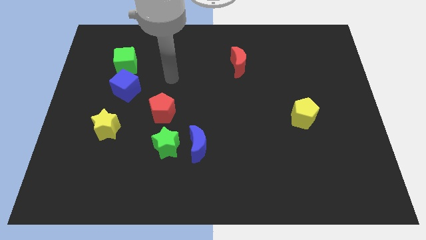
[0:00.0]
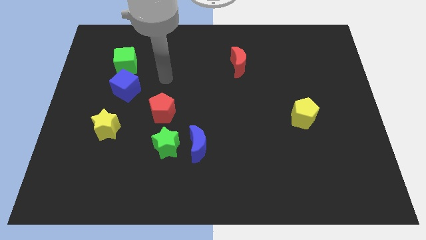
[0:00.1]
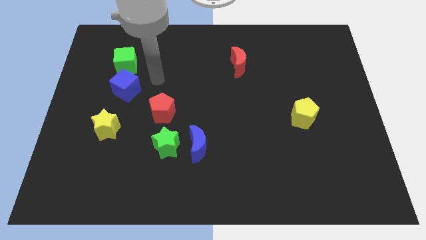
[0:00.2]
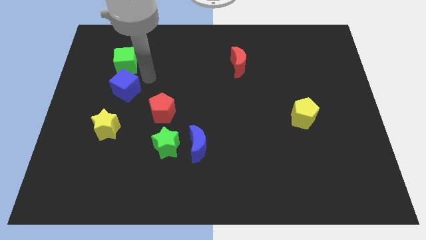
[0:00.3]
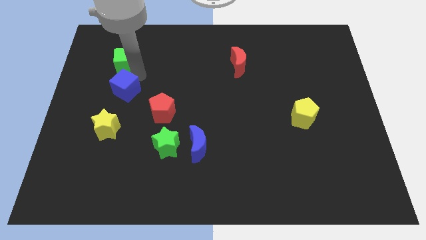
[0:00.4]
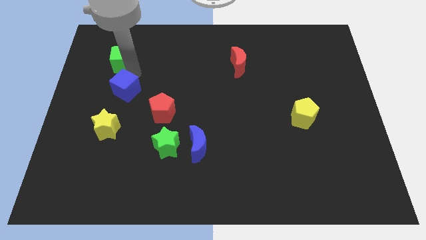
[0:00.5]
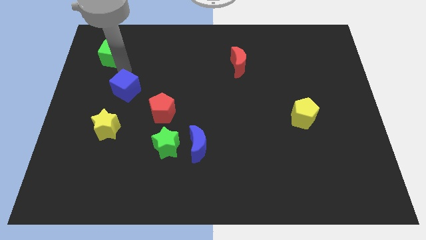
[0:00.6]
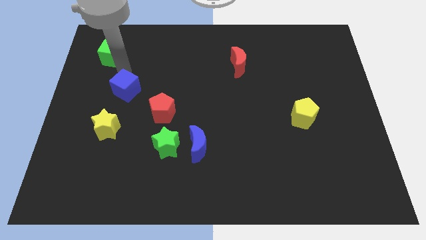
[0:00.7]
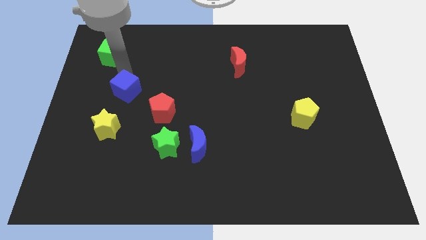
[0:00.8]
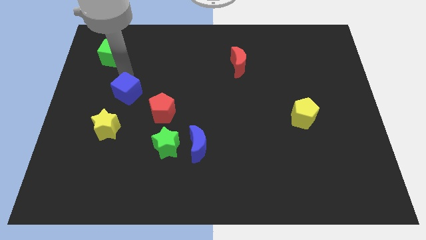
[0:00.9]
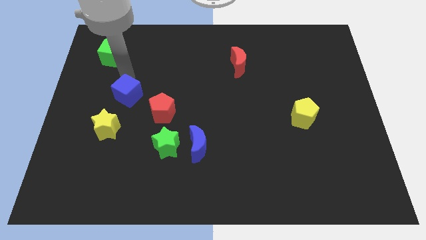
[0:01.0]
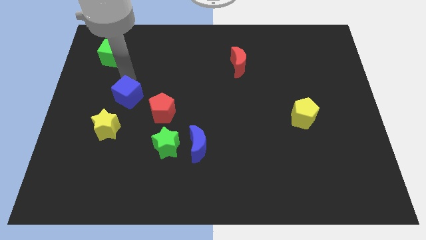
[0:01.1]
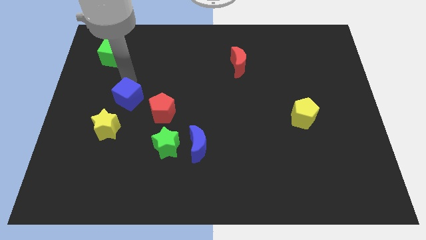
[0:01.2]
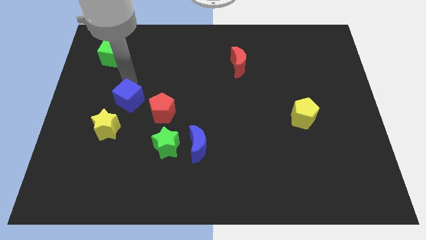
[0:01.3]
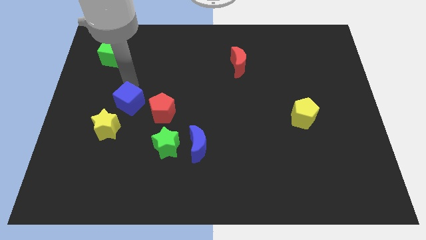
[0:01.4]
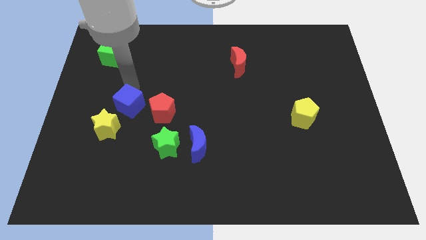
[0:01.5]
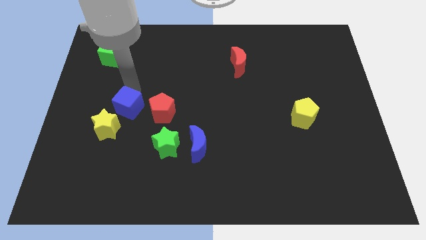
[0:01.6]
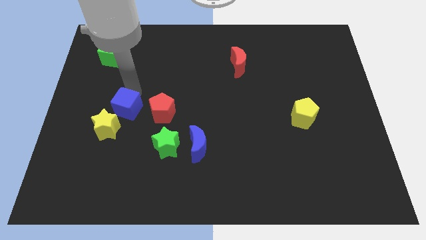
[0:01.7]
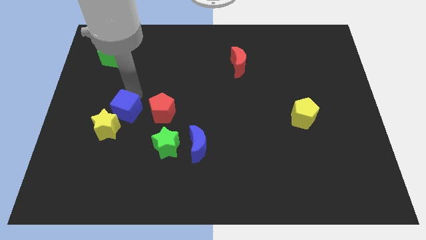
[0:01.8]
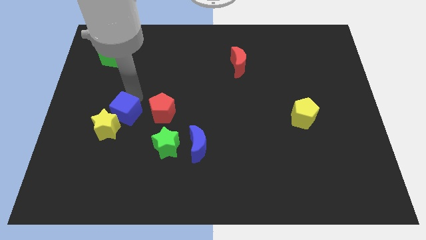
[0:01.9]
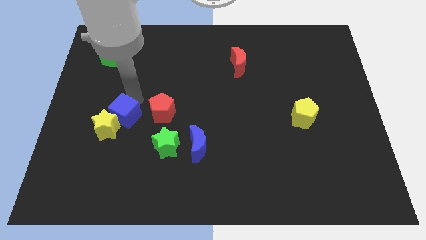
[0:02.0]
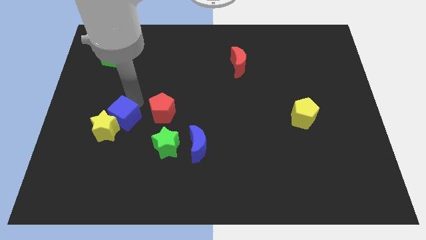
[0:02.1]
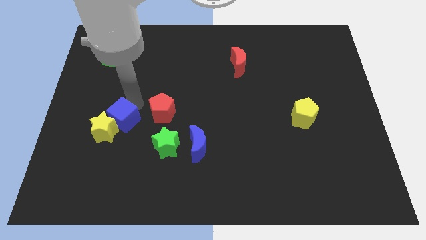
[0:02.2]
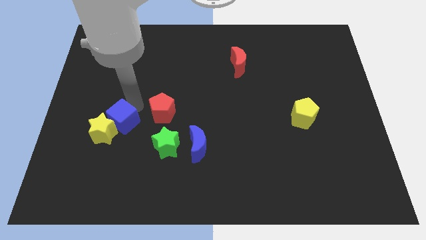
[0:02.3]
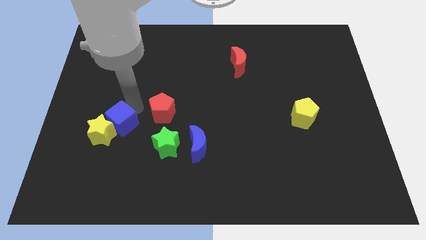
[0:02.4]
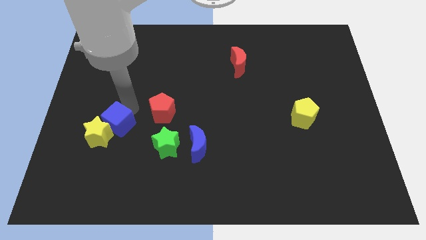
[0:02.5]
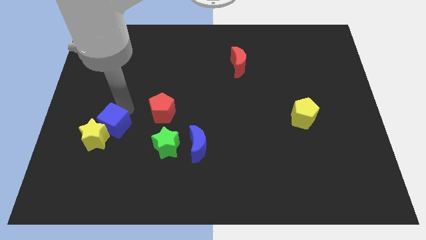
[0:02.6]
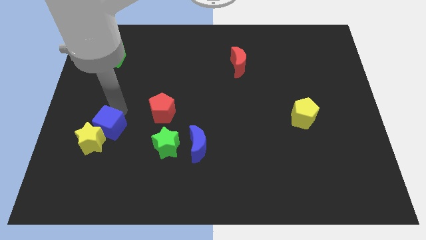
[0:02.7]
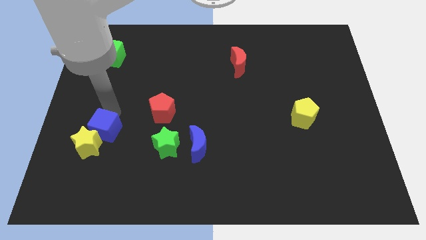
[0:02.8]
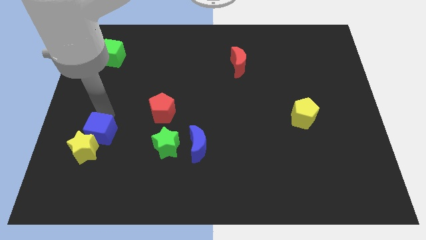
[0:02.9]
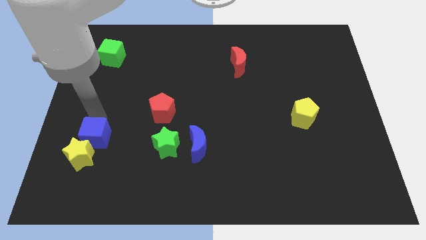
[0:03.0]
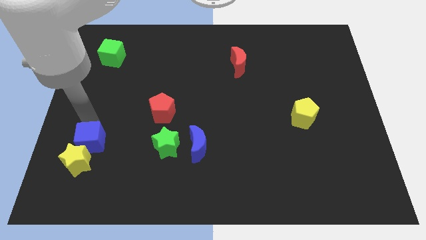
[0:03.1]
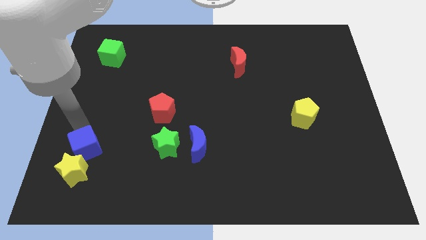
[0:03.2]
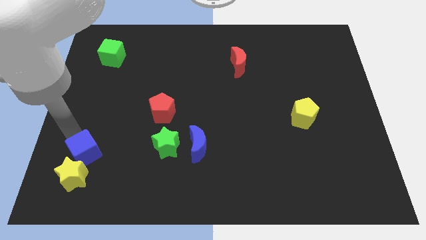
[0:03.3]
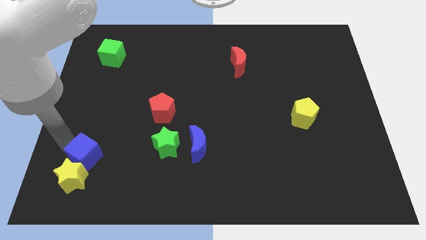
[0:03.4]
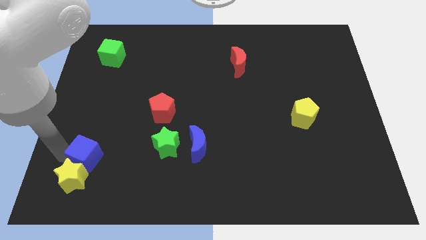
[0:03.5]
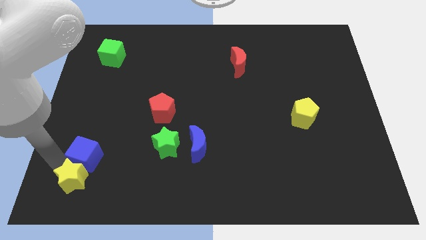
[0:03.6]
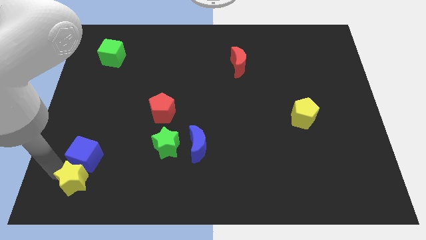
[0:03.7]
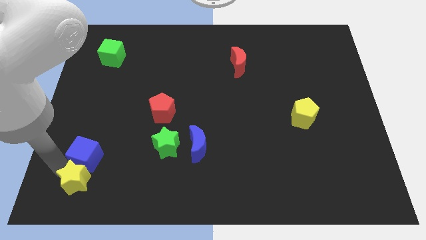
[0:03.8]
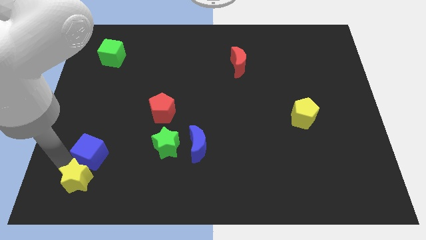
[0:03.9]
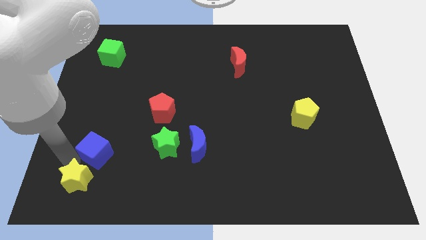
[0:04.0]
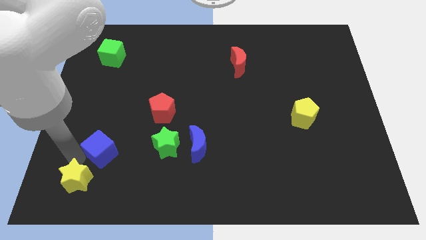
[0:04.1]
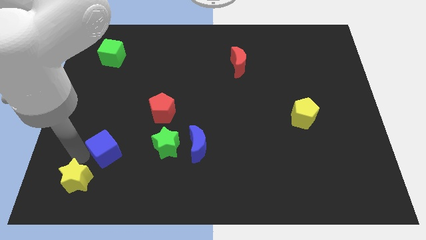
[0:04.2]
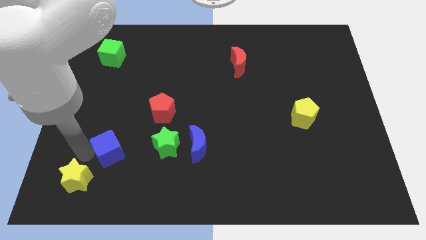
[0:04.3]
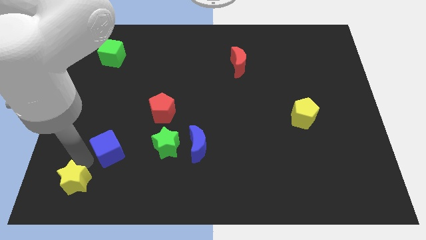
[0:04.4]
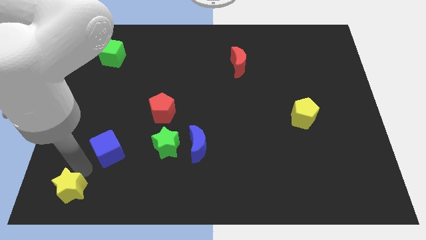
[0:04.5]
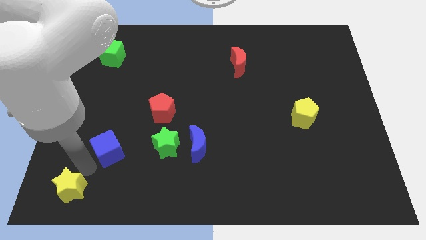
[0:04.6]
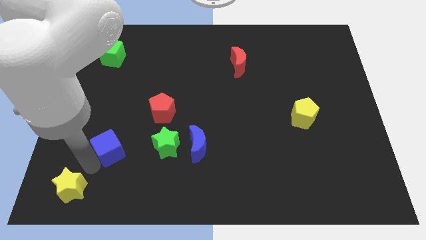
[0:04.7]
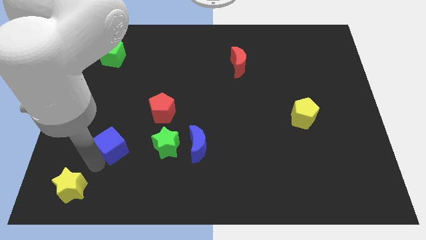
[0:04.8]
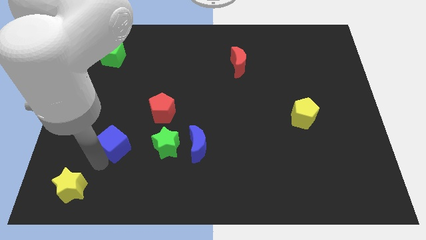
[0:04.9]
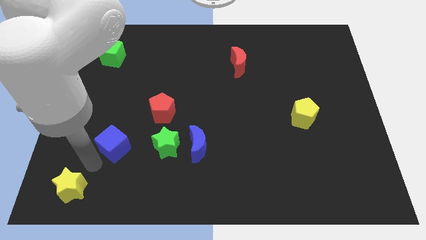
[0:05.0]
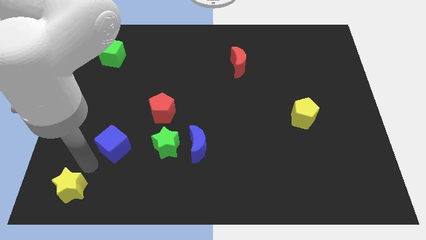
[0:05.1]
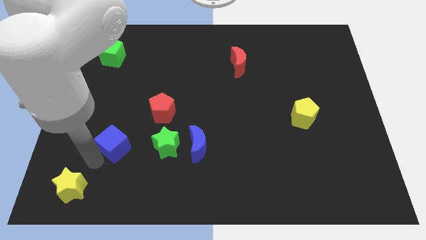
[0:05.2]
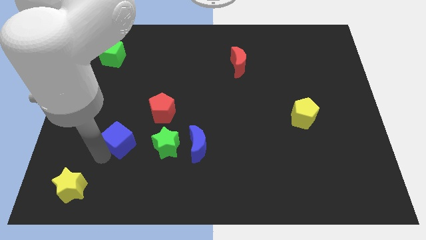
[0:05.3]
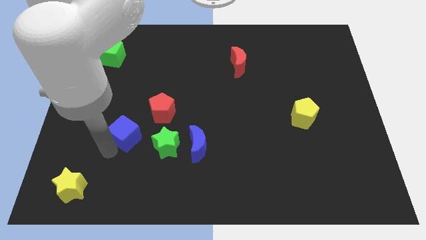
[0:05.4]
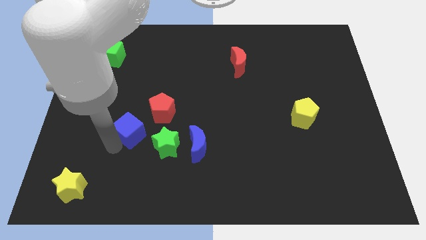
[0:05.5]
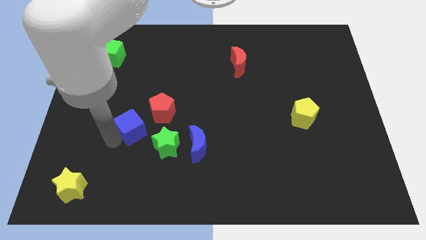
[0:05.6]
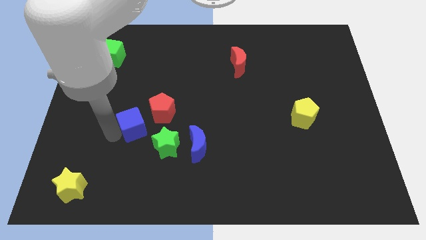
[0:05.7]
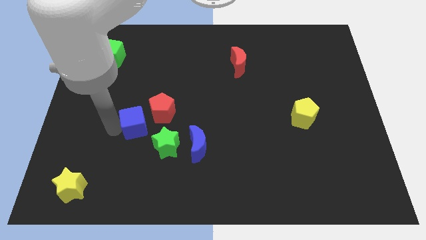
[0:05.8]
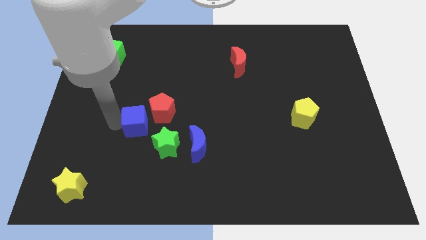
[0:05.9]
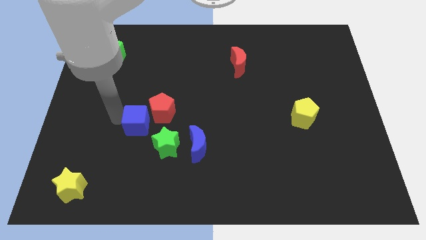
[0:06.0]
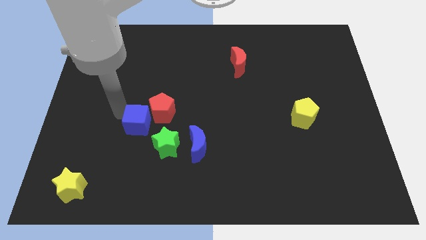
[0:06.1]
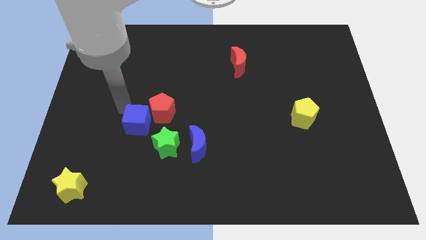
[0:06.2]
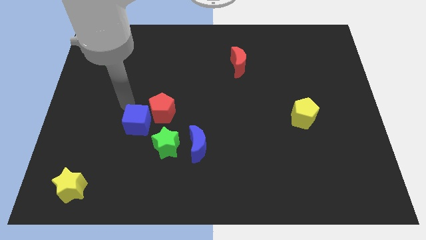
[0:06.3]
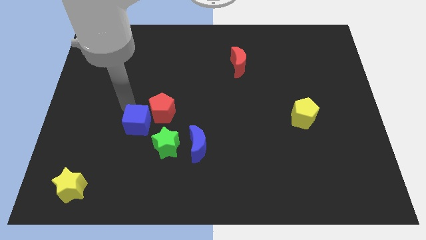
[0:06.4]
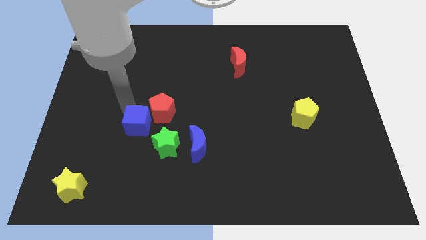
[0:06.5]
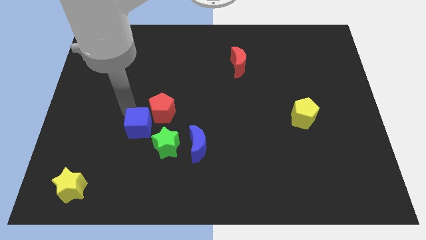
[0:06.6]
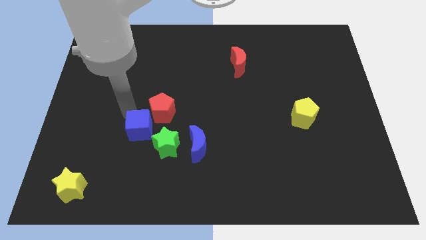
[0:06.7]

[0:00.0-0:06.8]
put the blue cube to the left of the blue moon
